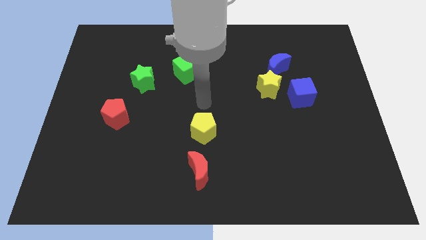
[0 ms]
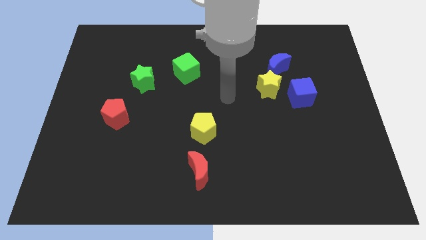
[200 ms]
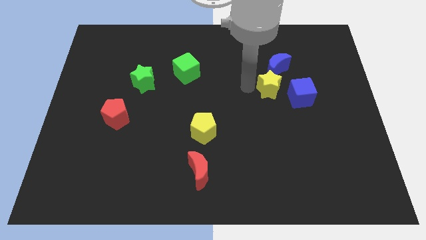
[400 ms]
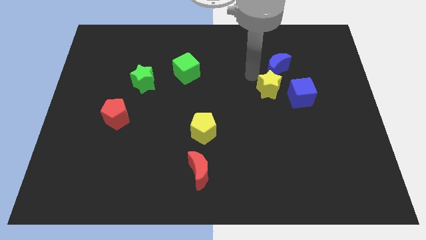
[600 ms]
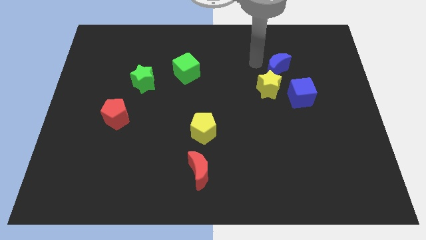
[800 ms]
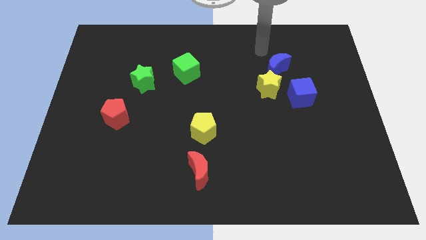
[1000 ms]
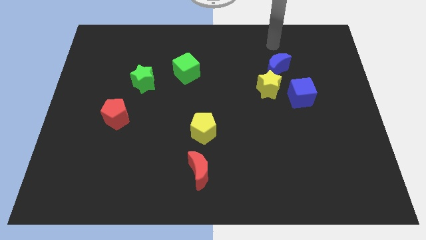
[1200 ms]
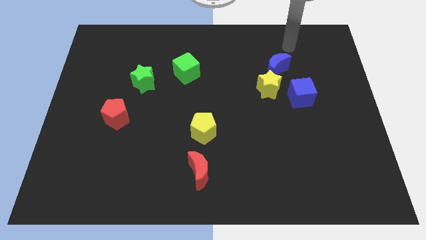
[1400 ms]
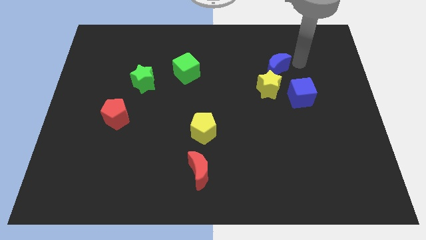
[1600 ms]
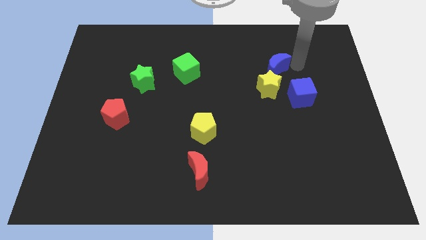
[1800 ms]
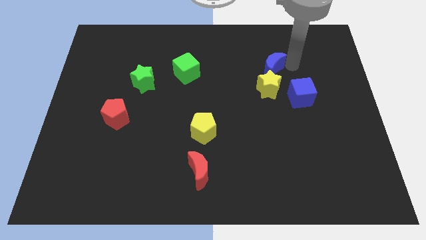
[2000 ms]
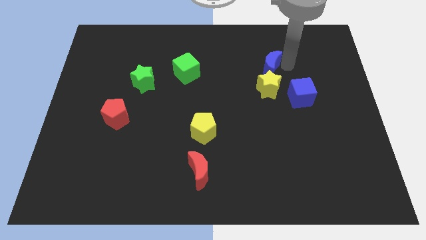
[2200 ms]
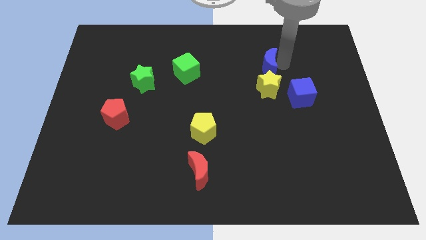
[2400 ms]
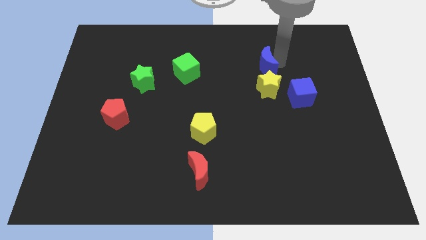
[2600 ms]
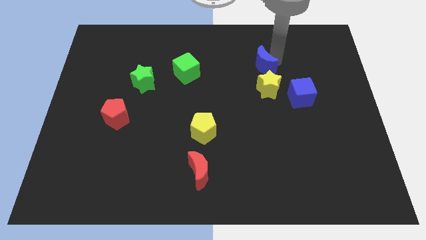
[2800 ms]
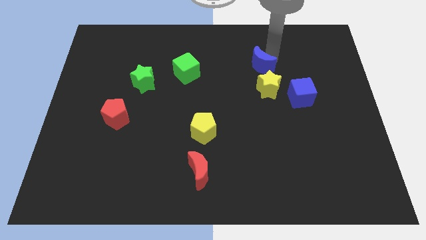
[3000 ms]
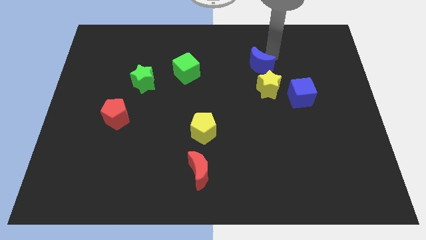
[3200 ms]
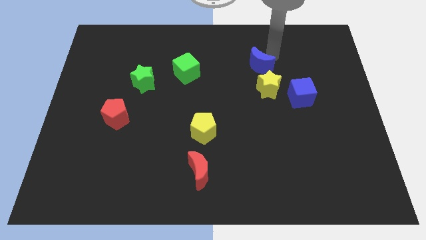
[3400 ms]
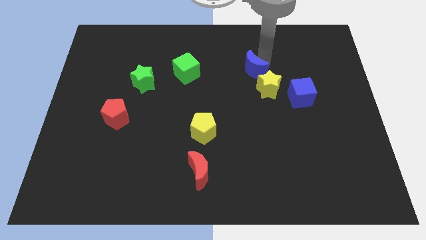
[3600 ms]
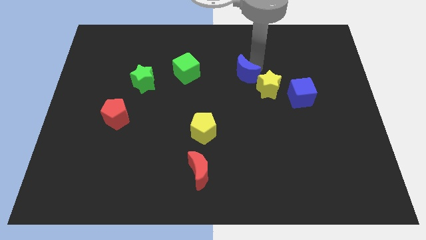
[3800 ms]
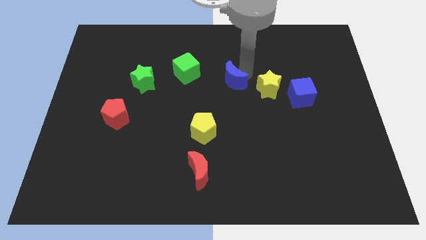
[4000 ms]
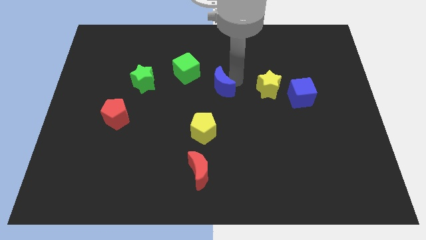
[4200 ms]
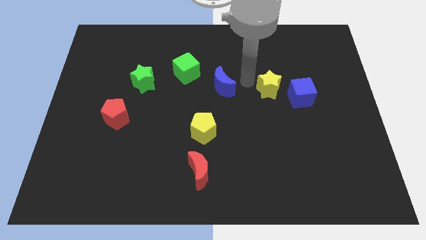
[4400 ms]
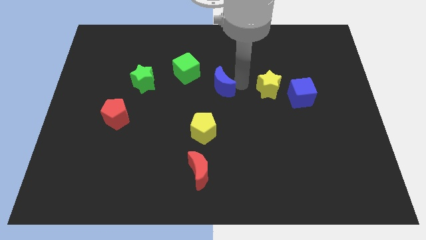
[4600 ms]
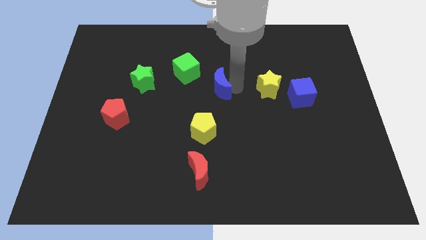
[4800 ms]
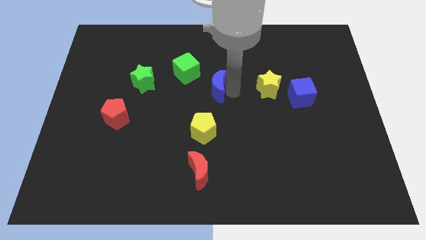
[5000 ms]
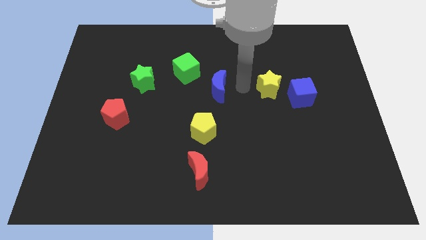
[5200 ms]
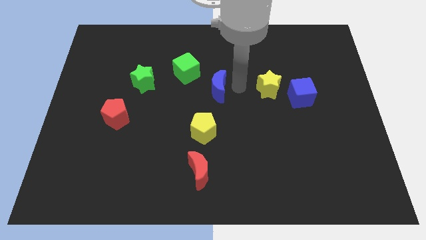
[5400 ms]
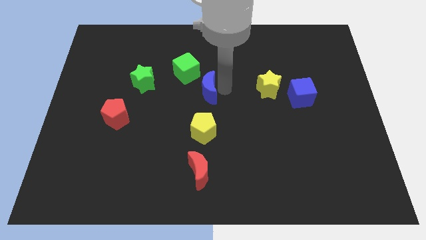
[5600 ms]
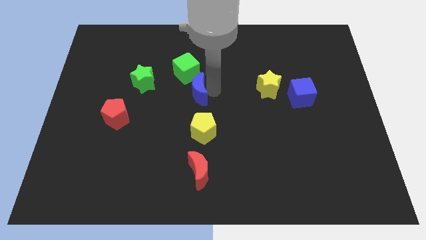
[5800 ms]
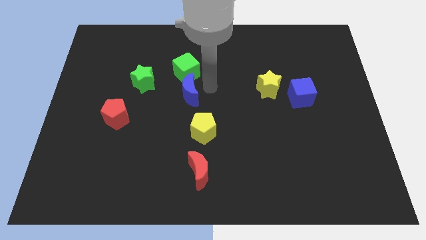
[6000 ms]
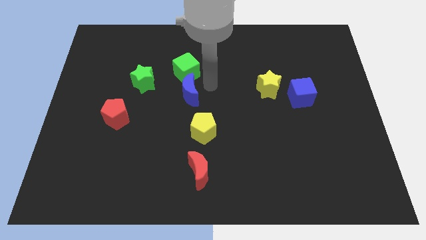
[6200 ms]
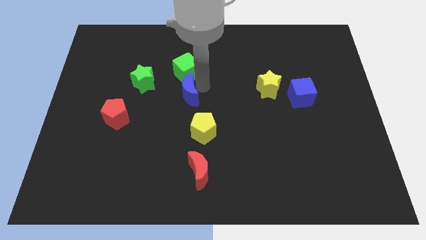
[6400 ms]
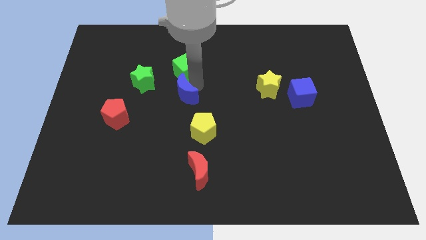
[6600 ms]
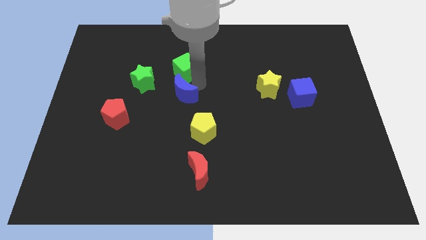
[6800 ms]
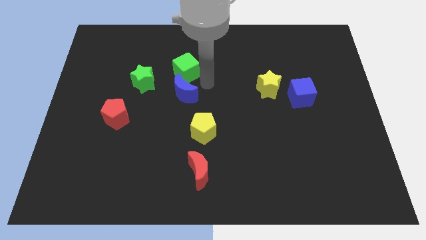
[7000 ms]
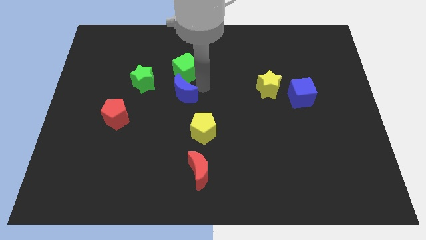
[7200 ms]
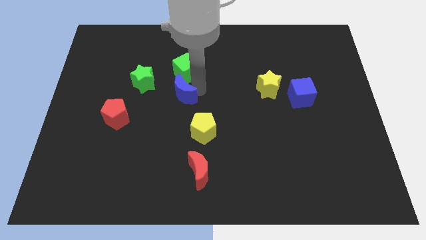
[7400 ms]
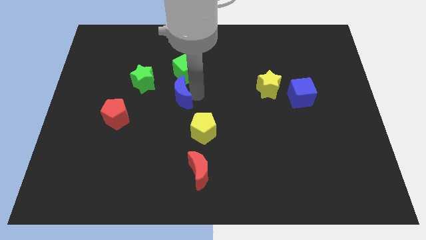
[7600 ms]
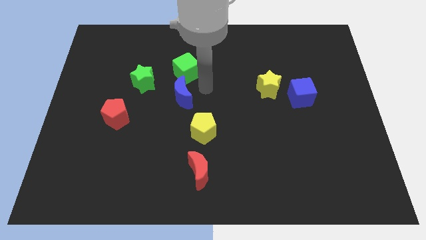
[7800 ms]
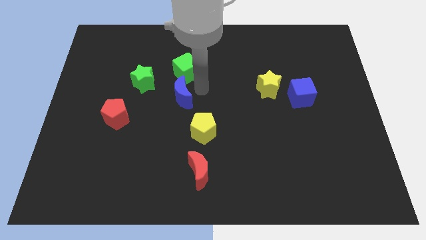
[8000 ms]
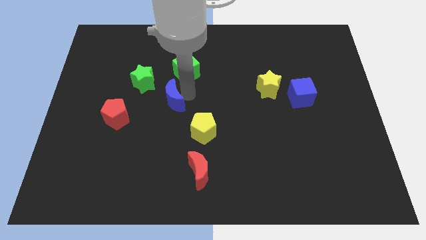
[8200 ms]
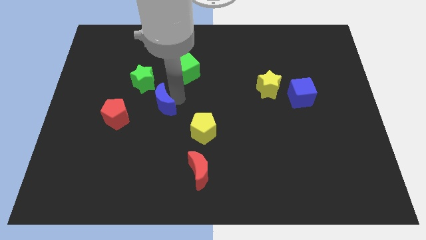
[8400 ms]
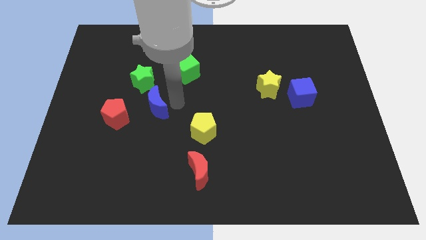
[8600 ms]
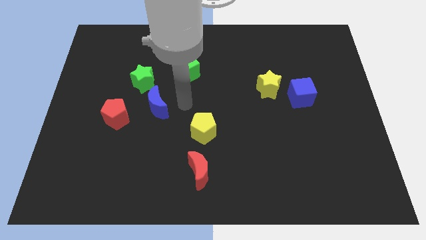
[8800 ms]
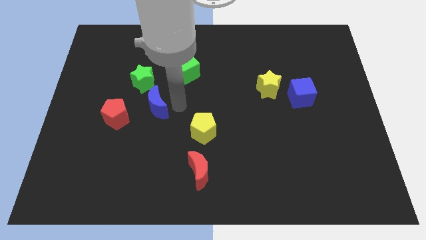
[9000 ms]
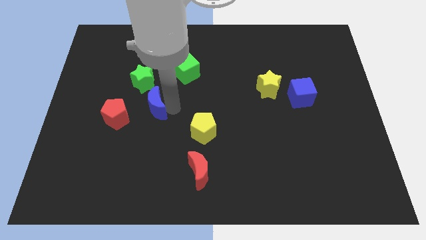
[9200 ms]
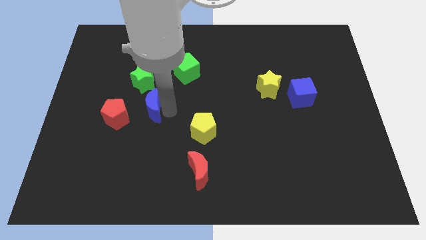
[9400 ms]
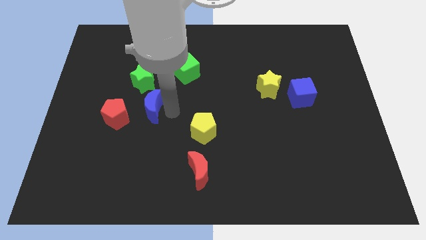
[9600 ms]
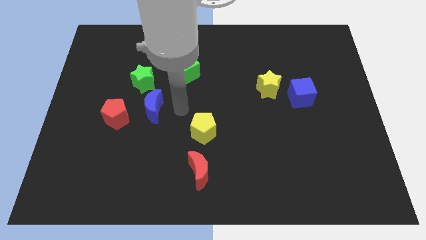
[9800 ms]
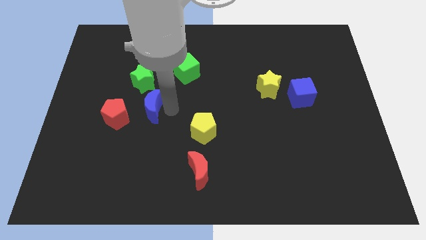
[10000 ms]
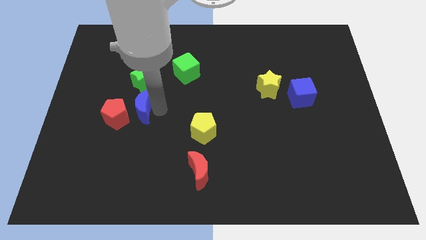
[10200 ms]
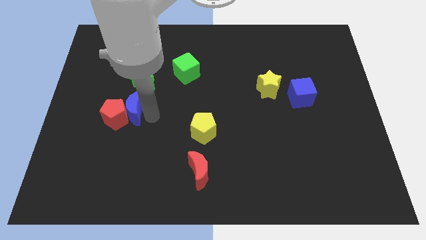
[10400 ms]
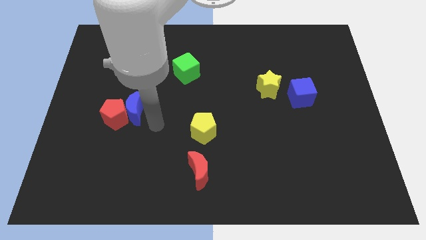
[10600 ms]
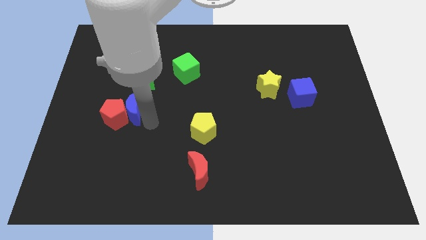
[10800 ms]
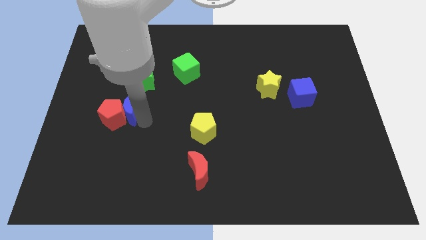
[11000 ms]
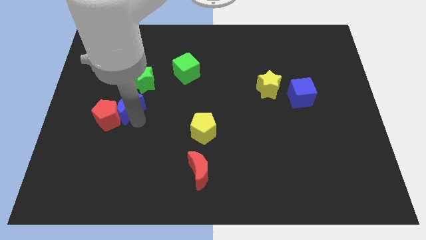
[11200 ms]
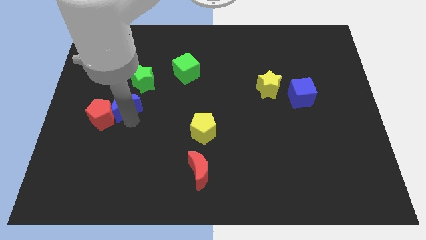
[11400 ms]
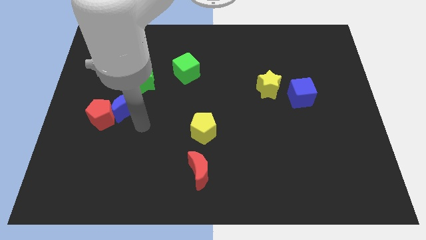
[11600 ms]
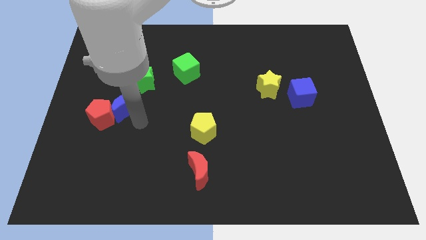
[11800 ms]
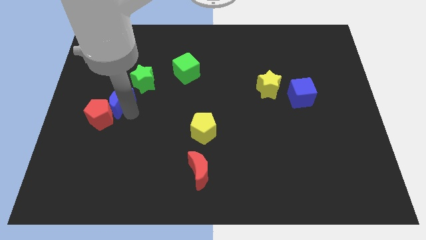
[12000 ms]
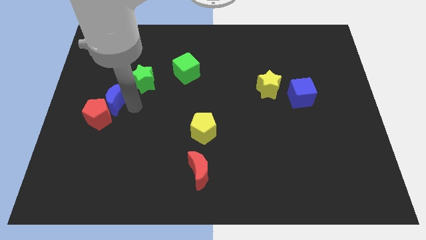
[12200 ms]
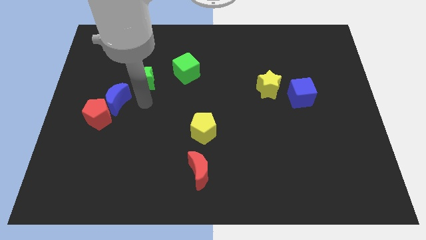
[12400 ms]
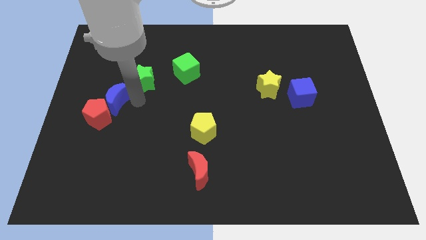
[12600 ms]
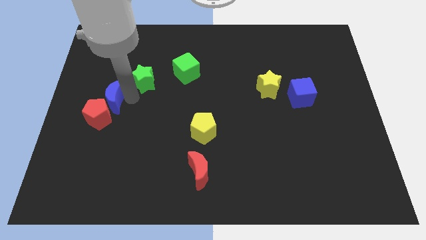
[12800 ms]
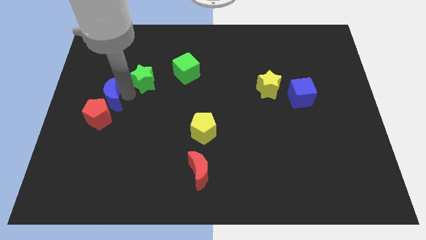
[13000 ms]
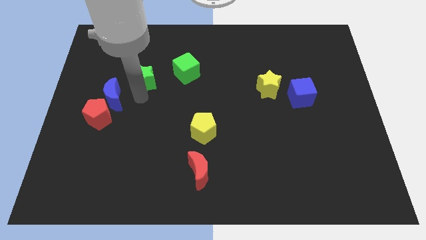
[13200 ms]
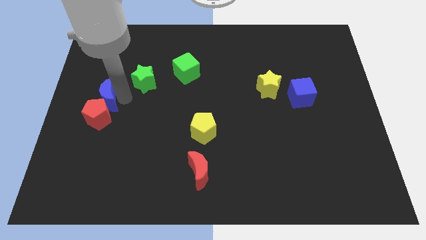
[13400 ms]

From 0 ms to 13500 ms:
slide the blue moon to the center left
